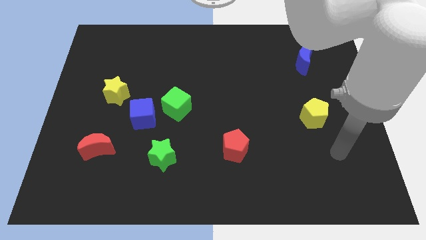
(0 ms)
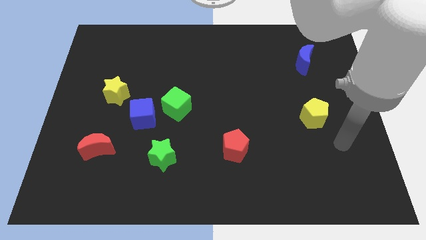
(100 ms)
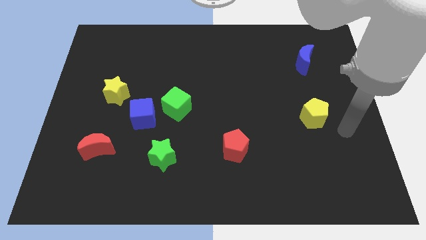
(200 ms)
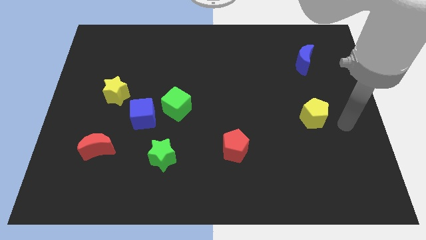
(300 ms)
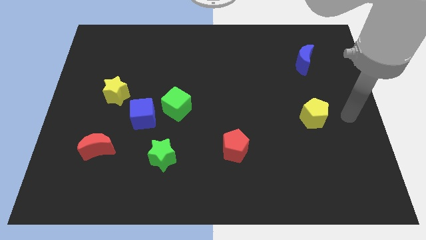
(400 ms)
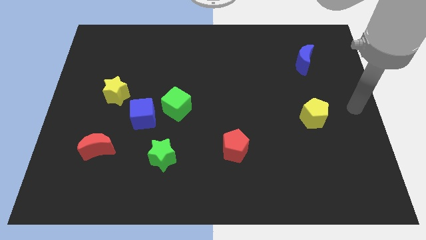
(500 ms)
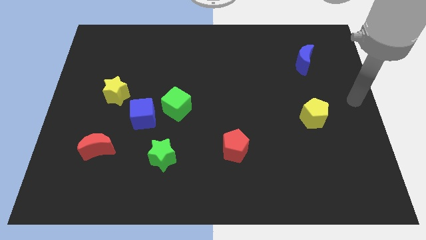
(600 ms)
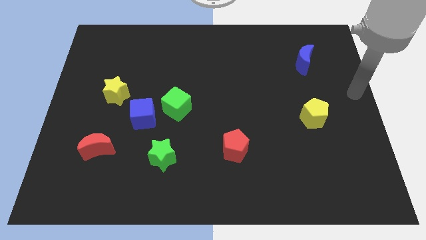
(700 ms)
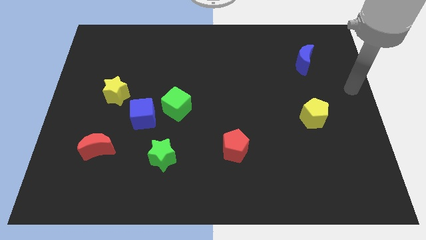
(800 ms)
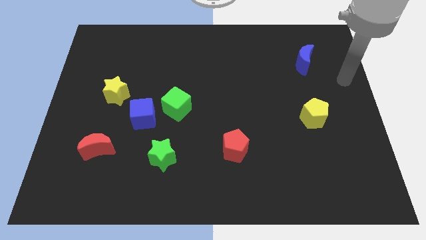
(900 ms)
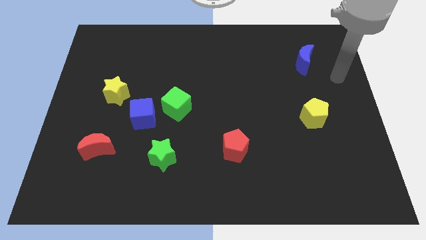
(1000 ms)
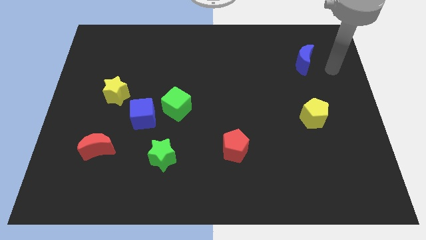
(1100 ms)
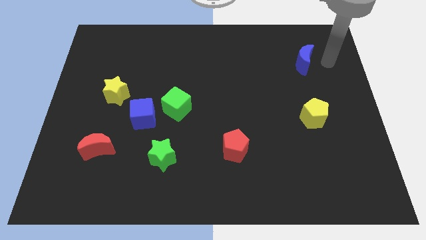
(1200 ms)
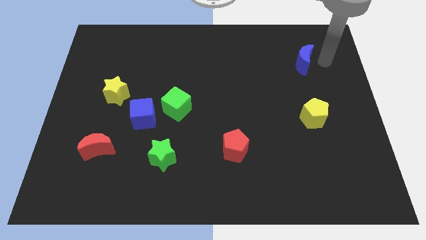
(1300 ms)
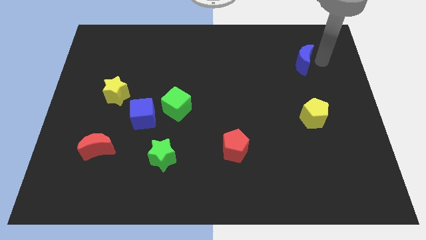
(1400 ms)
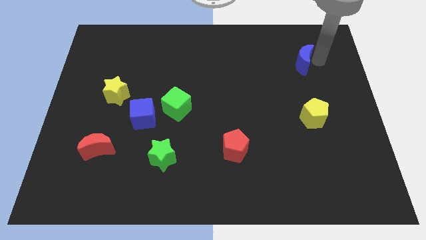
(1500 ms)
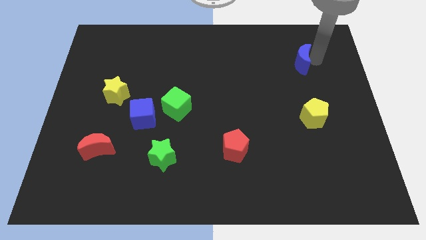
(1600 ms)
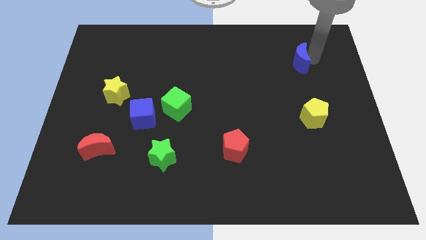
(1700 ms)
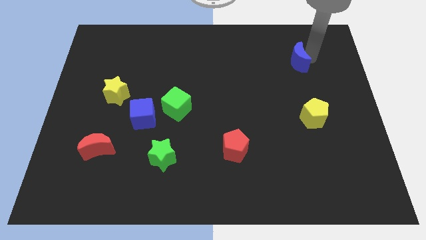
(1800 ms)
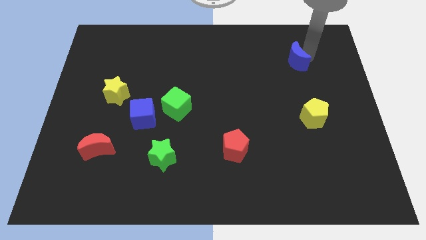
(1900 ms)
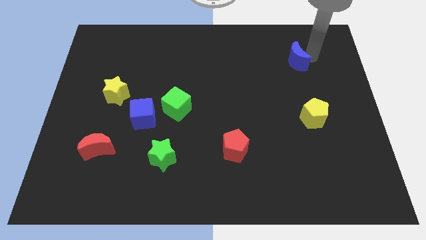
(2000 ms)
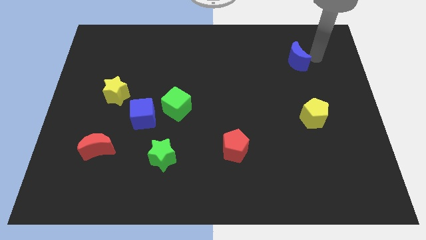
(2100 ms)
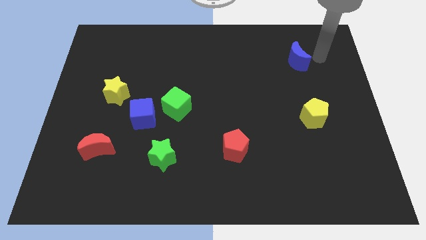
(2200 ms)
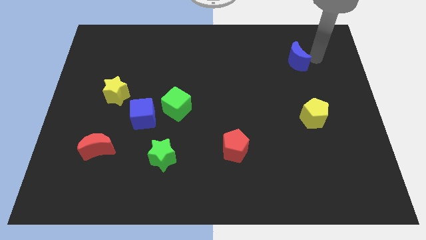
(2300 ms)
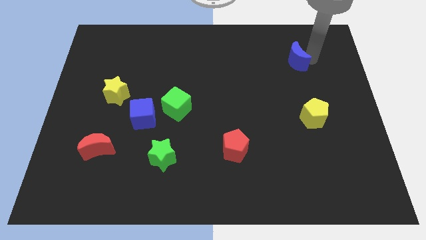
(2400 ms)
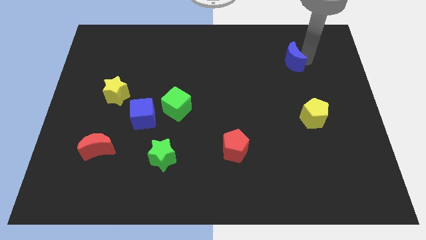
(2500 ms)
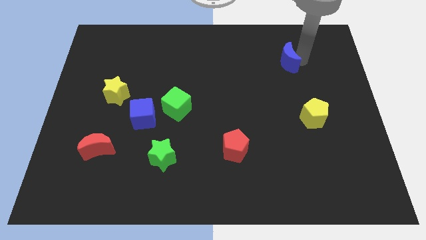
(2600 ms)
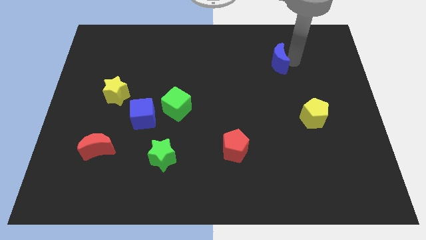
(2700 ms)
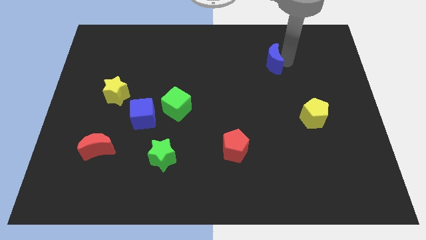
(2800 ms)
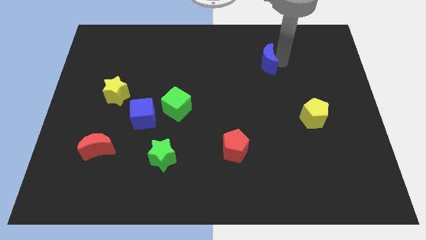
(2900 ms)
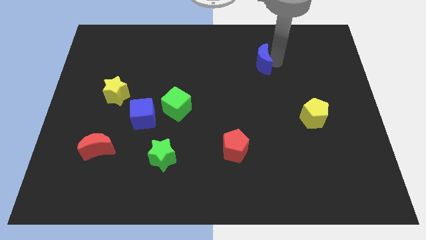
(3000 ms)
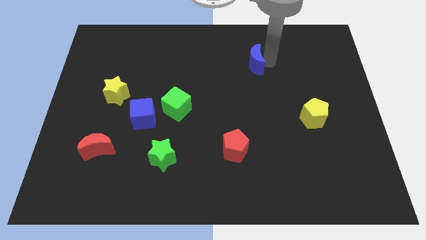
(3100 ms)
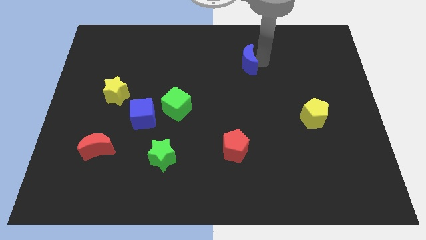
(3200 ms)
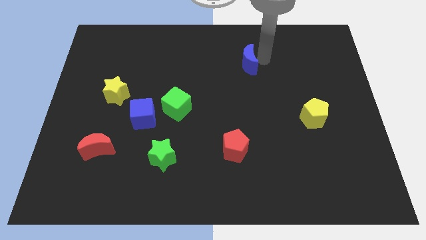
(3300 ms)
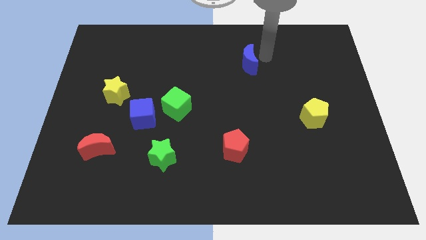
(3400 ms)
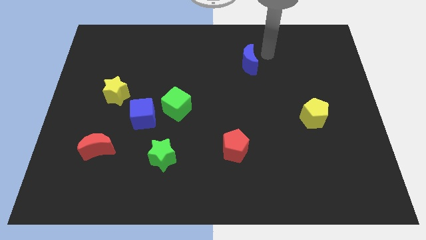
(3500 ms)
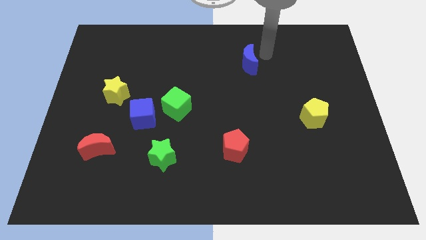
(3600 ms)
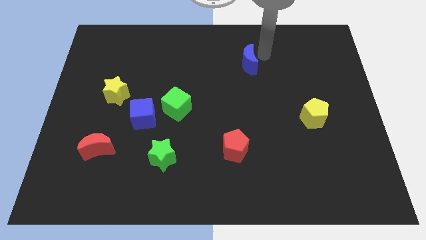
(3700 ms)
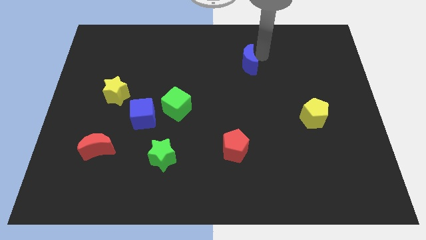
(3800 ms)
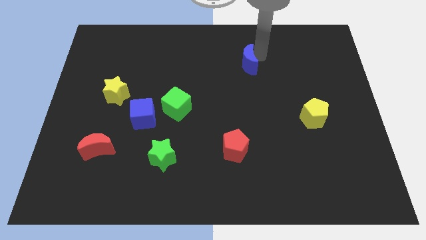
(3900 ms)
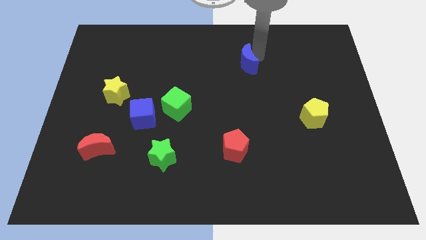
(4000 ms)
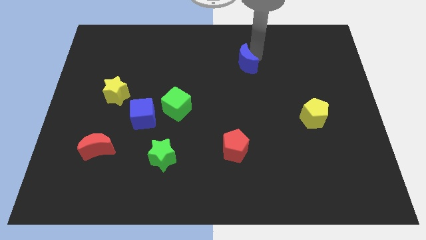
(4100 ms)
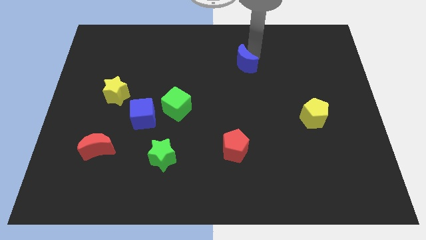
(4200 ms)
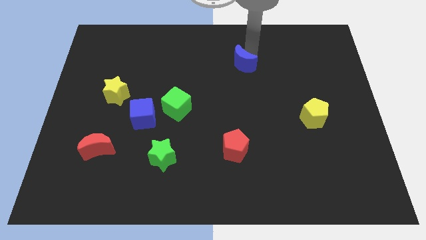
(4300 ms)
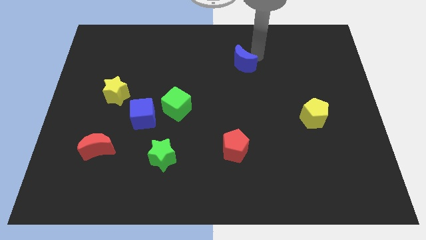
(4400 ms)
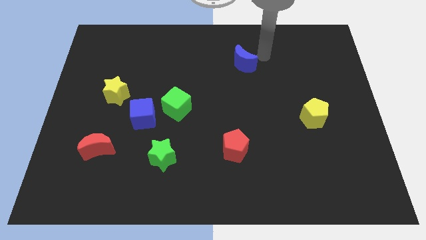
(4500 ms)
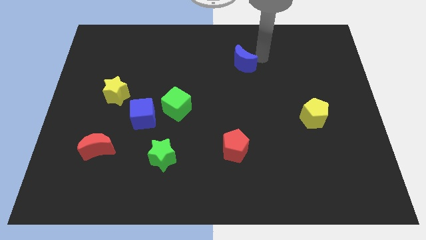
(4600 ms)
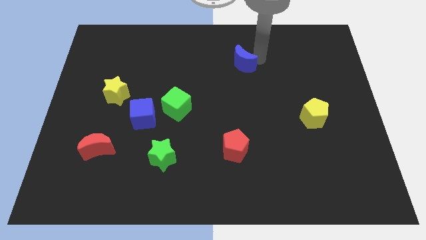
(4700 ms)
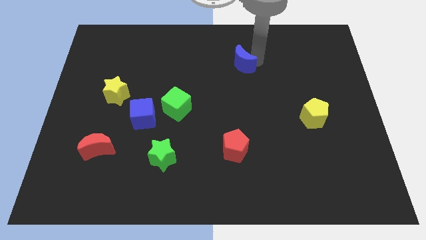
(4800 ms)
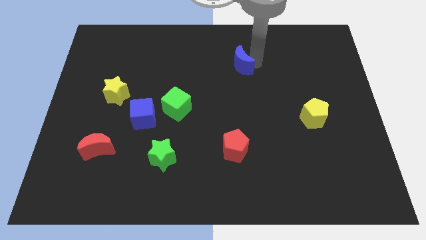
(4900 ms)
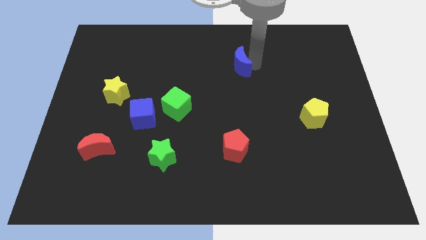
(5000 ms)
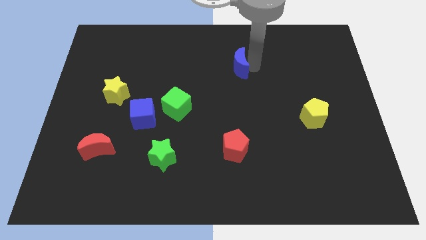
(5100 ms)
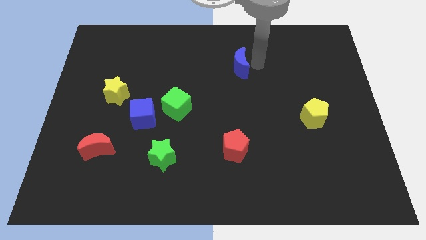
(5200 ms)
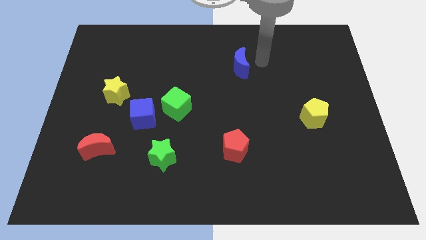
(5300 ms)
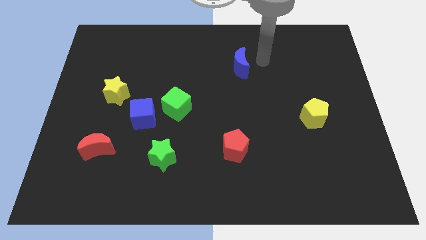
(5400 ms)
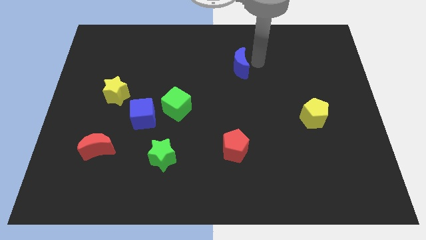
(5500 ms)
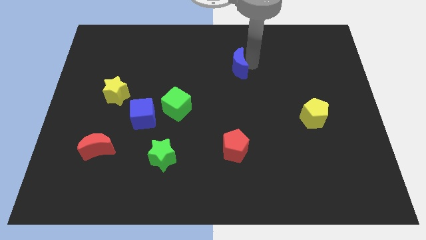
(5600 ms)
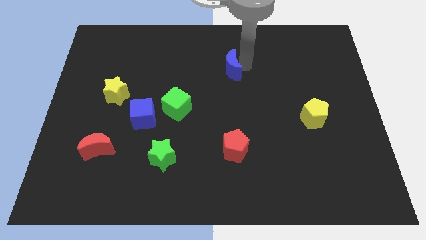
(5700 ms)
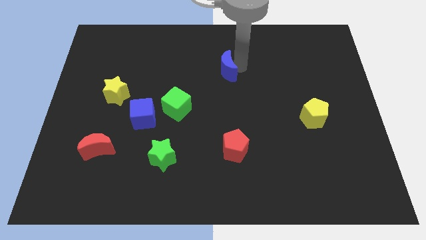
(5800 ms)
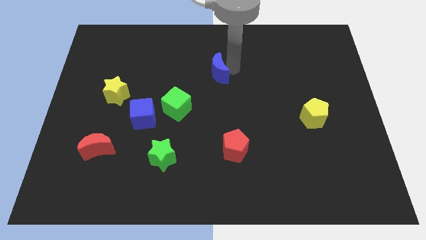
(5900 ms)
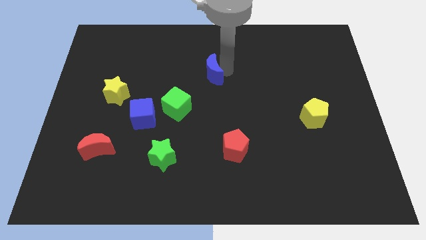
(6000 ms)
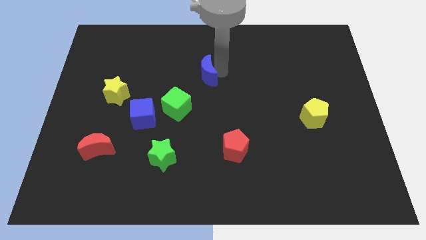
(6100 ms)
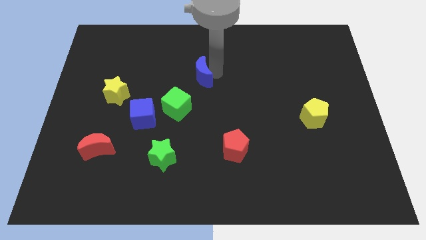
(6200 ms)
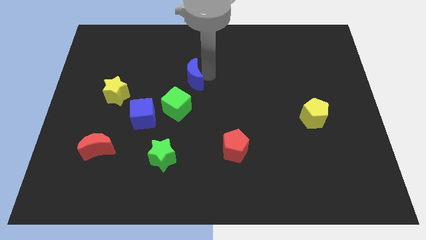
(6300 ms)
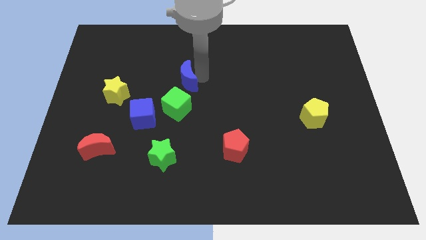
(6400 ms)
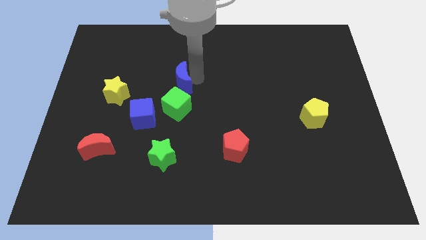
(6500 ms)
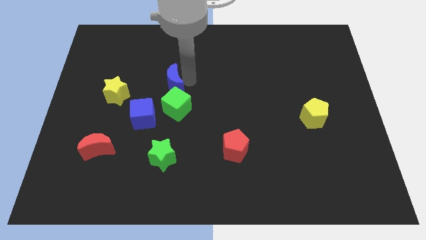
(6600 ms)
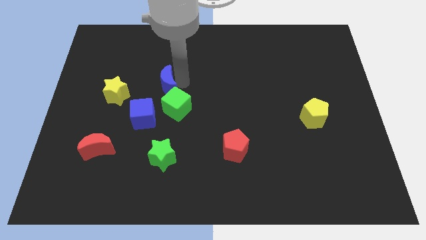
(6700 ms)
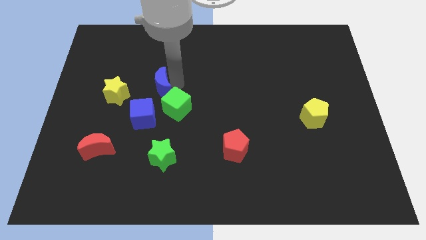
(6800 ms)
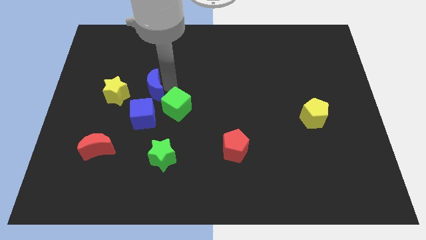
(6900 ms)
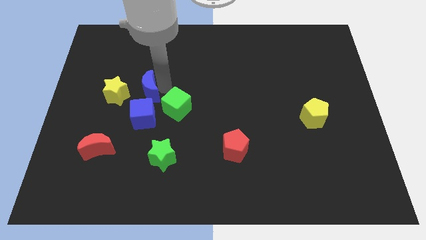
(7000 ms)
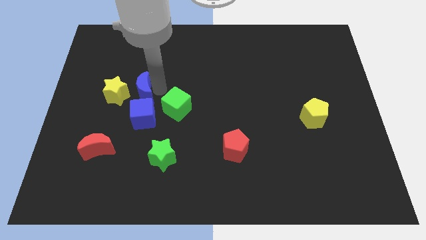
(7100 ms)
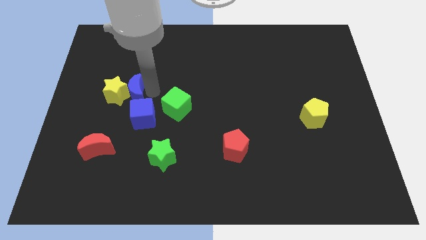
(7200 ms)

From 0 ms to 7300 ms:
put the blue moon to the yellow star
